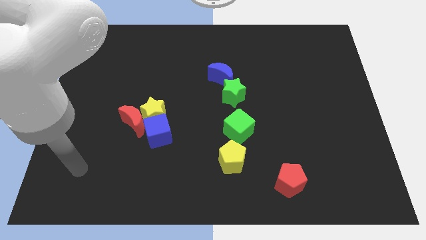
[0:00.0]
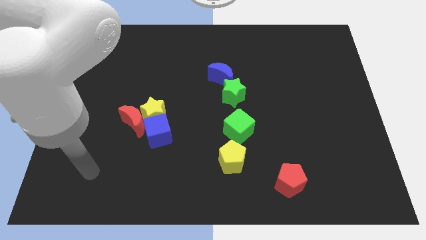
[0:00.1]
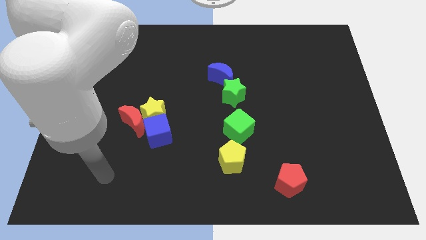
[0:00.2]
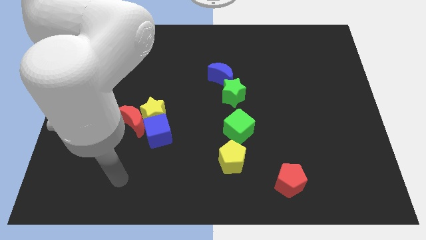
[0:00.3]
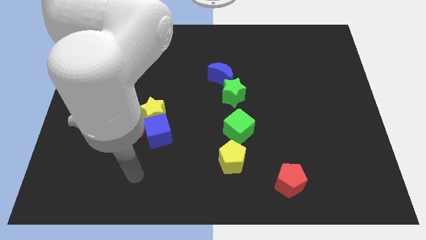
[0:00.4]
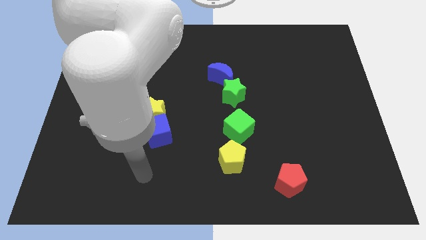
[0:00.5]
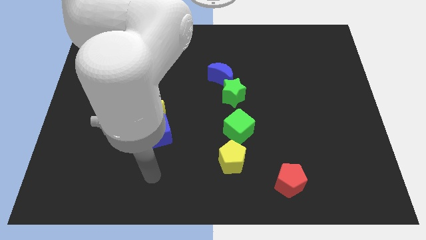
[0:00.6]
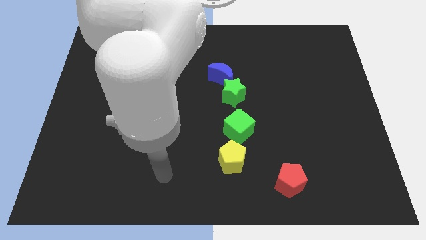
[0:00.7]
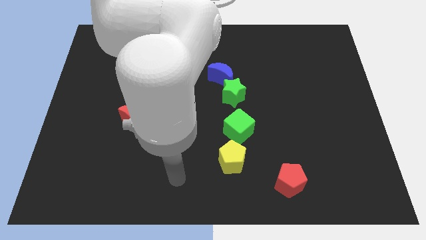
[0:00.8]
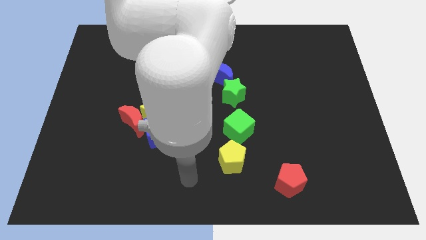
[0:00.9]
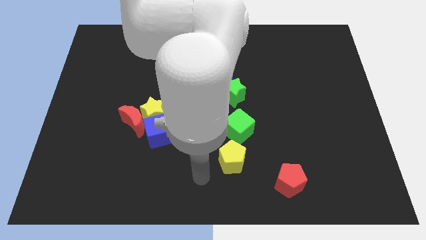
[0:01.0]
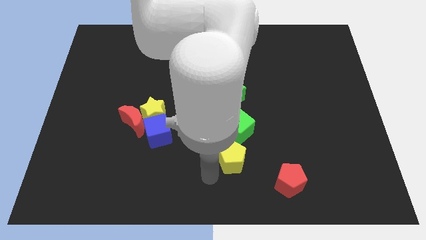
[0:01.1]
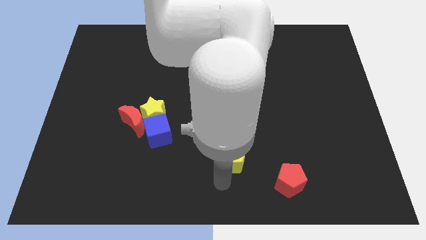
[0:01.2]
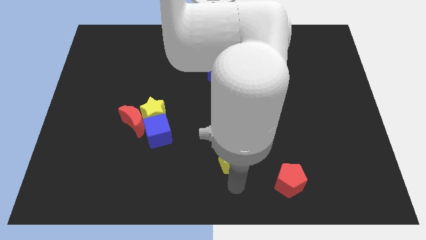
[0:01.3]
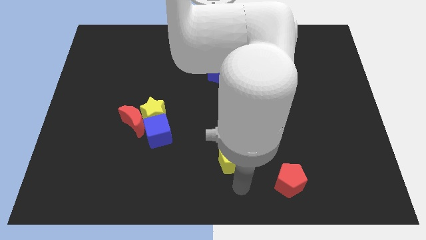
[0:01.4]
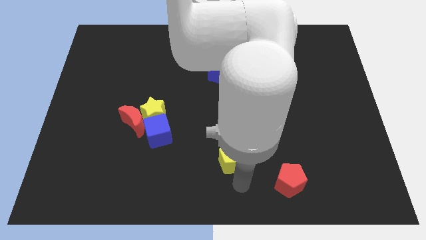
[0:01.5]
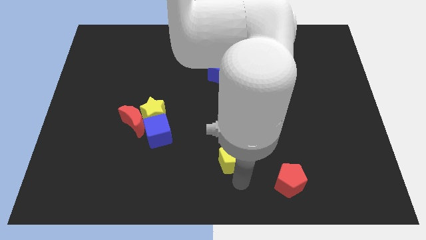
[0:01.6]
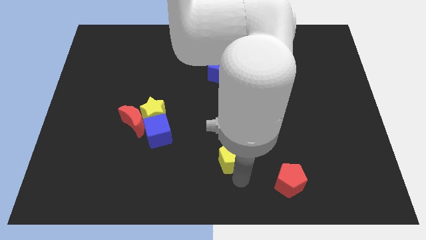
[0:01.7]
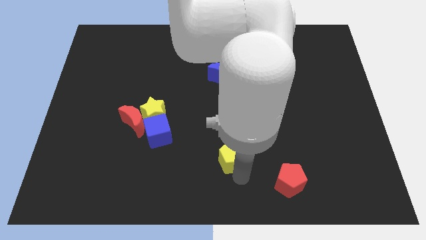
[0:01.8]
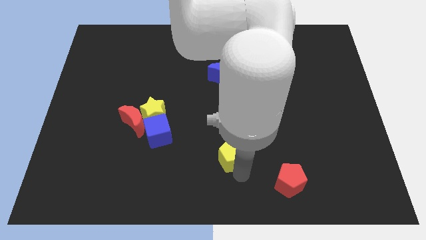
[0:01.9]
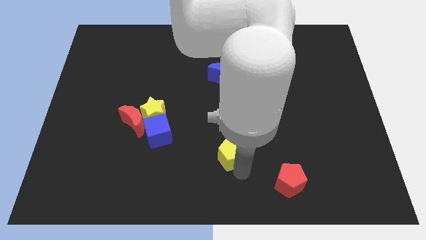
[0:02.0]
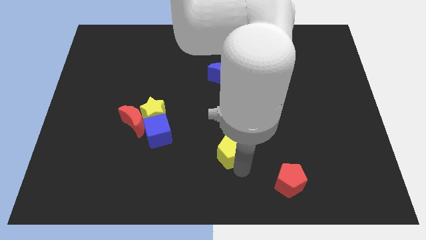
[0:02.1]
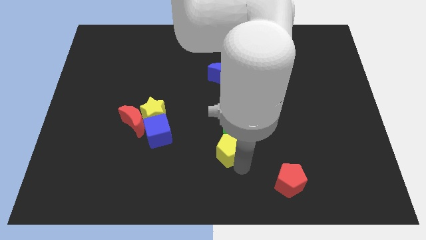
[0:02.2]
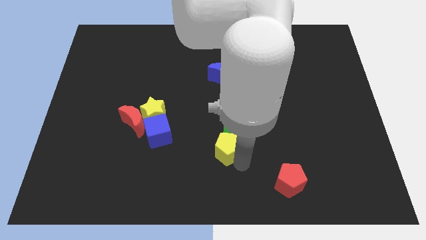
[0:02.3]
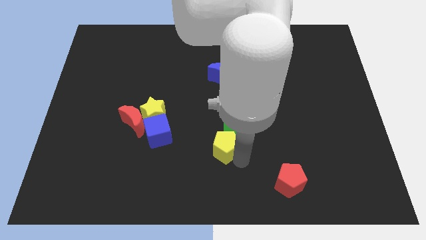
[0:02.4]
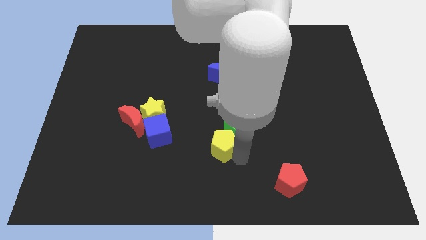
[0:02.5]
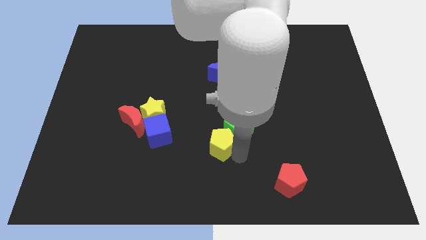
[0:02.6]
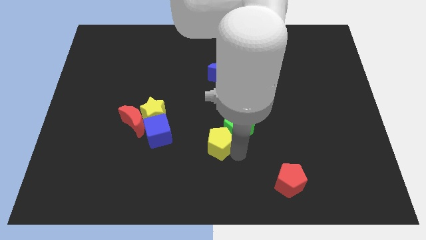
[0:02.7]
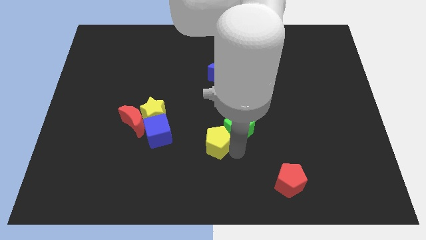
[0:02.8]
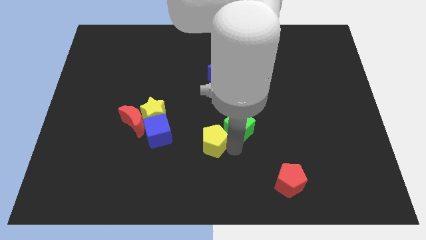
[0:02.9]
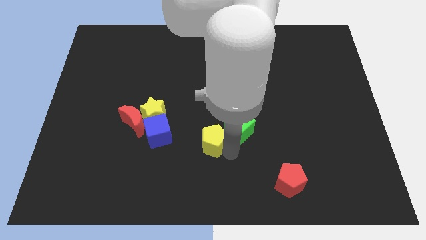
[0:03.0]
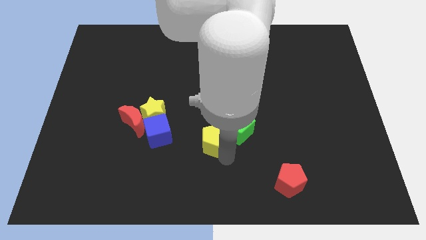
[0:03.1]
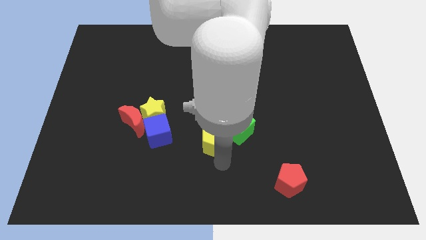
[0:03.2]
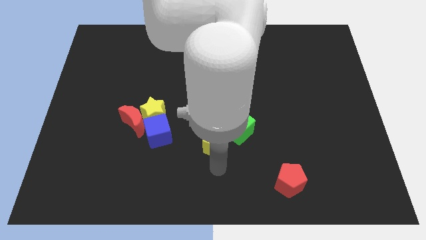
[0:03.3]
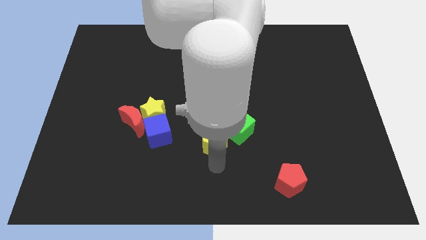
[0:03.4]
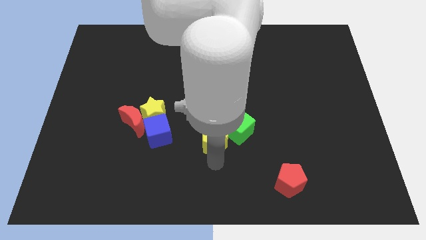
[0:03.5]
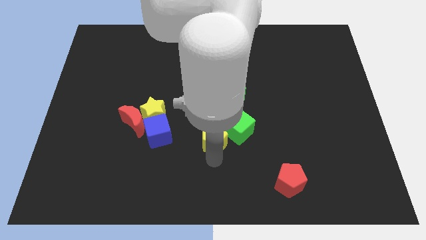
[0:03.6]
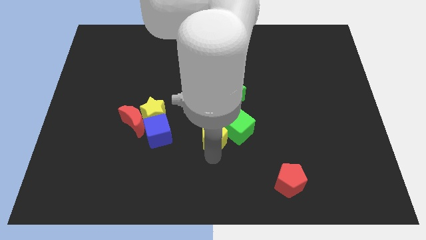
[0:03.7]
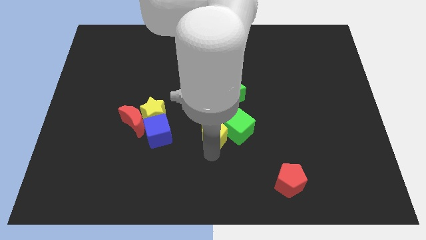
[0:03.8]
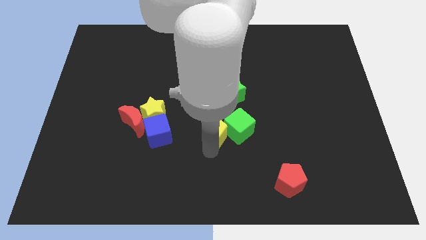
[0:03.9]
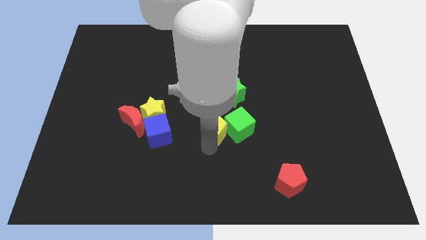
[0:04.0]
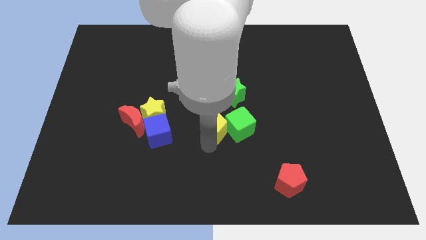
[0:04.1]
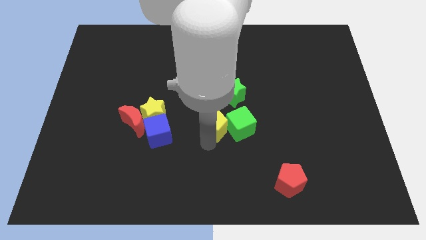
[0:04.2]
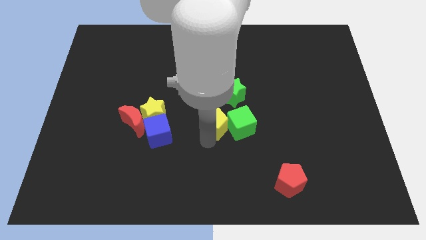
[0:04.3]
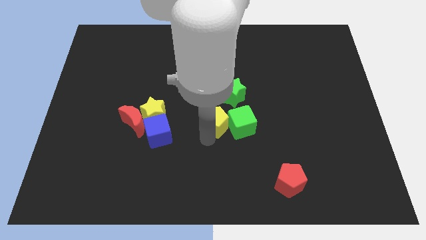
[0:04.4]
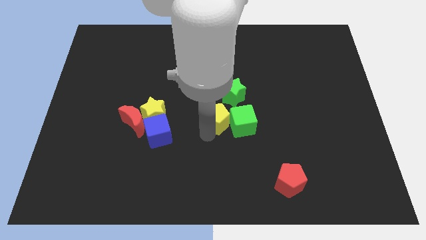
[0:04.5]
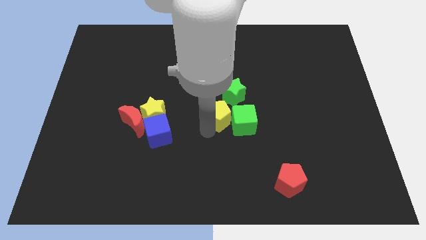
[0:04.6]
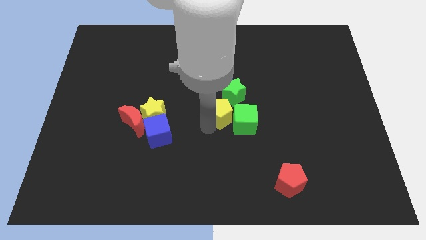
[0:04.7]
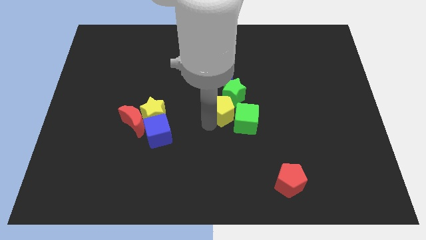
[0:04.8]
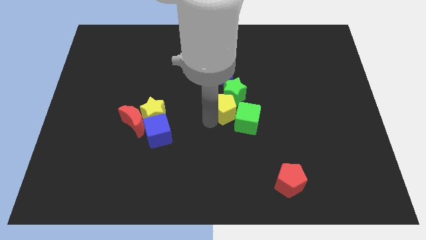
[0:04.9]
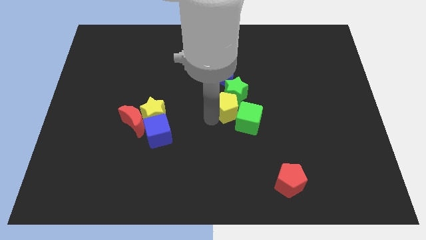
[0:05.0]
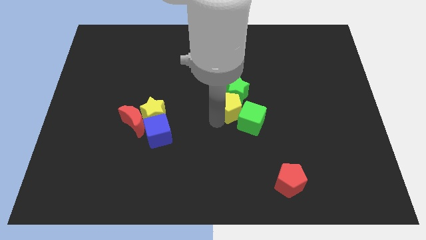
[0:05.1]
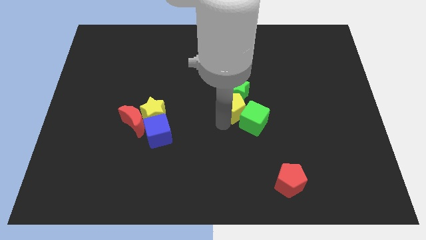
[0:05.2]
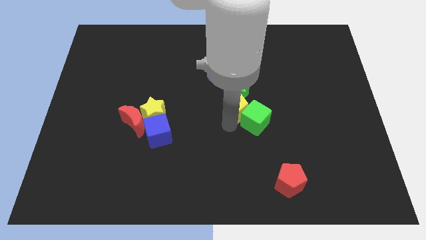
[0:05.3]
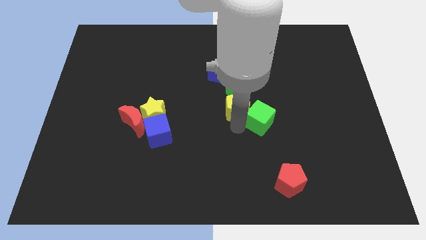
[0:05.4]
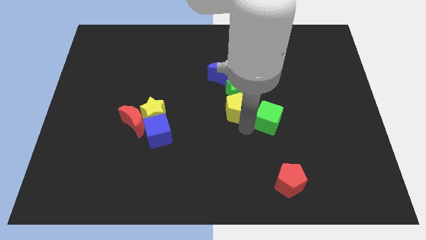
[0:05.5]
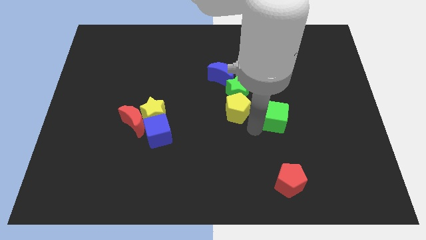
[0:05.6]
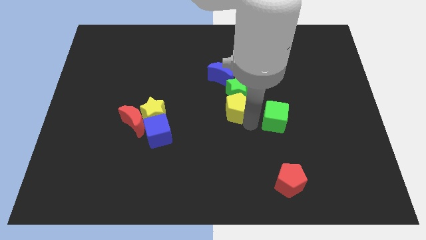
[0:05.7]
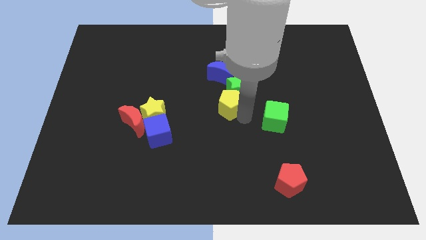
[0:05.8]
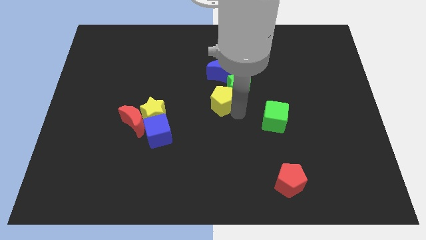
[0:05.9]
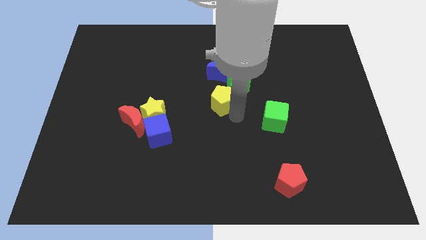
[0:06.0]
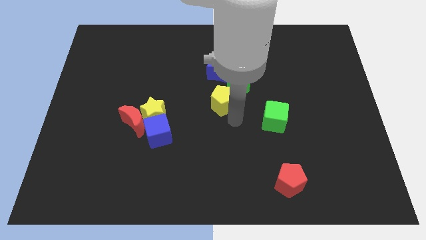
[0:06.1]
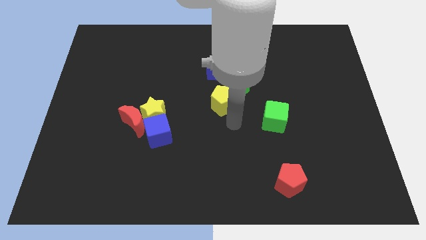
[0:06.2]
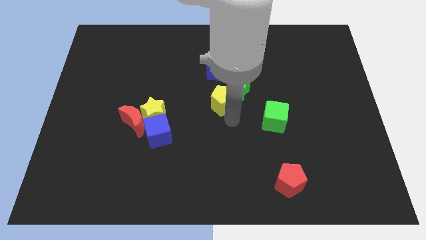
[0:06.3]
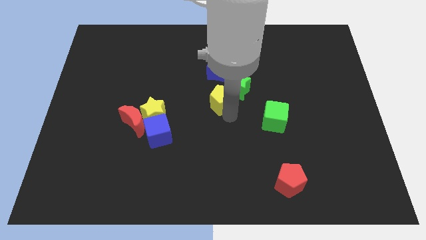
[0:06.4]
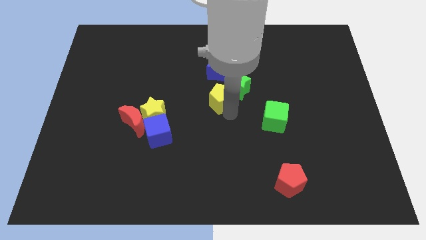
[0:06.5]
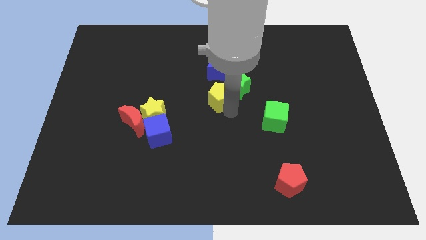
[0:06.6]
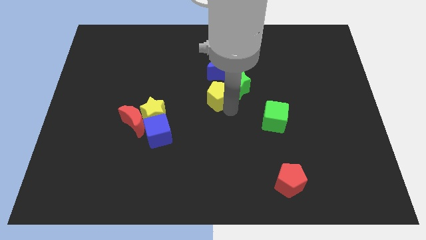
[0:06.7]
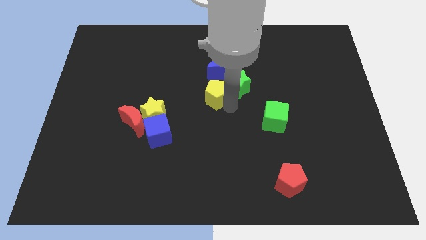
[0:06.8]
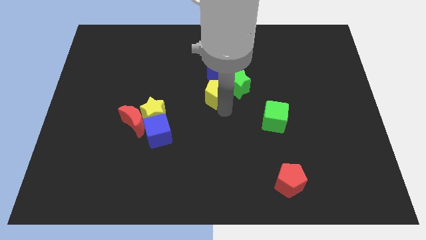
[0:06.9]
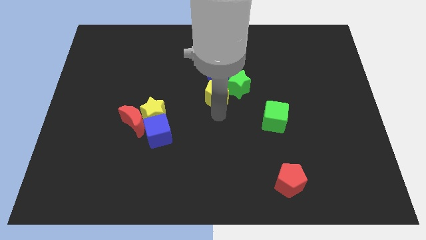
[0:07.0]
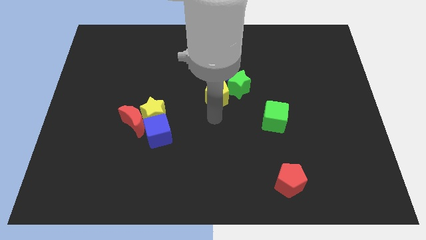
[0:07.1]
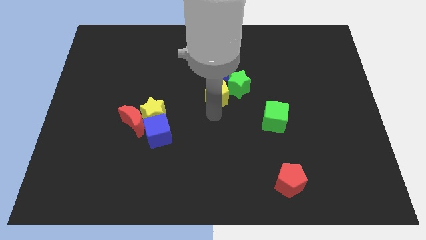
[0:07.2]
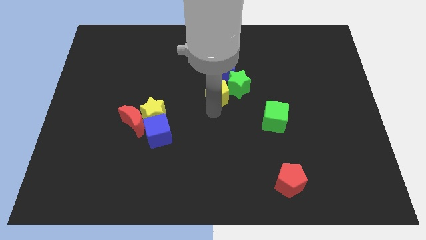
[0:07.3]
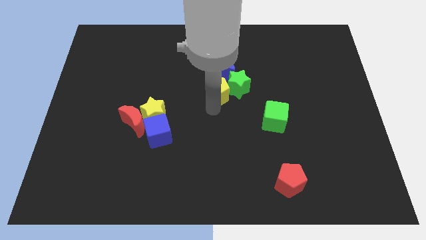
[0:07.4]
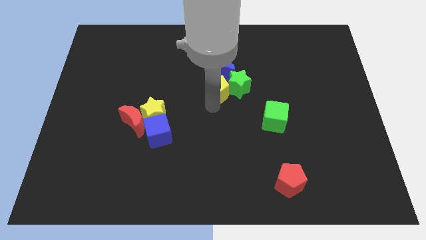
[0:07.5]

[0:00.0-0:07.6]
slide the yellow pentagon towards the blue moon
